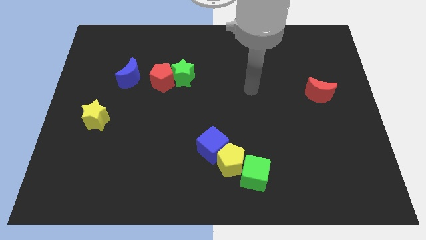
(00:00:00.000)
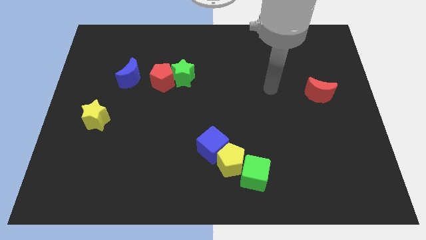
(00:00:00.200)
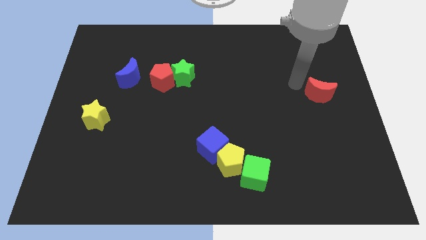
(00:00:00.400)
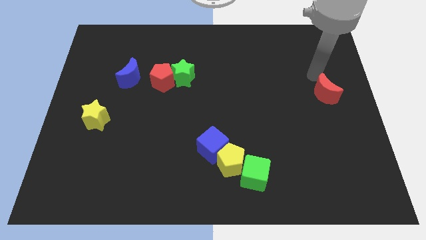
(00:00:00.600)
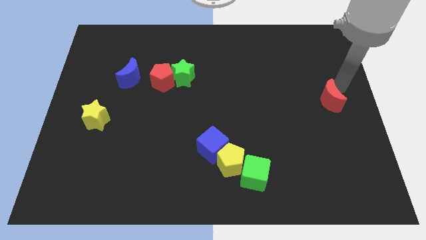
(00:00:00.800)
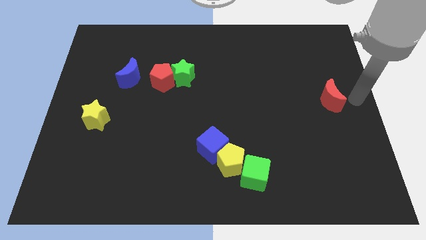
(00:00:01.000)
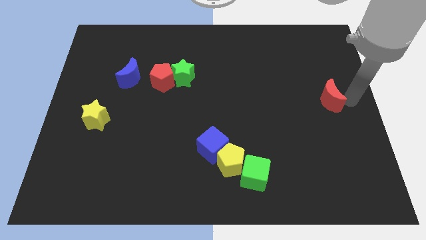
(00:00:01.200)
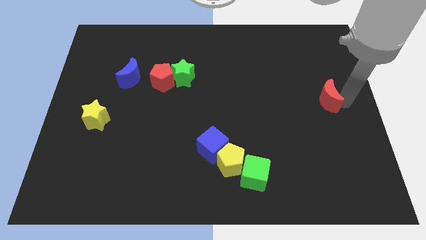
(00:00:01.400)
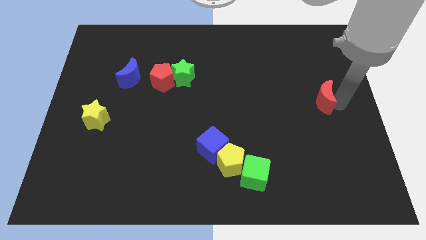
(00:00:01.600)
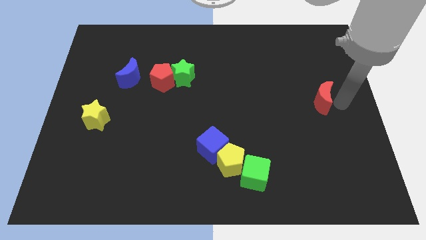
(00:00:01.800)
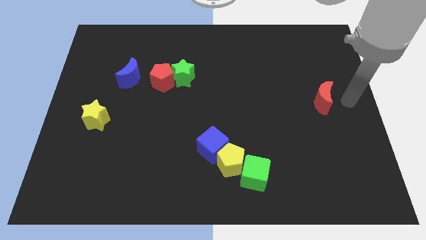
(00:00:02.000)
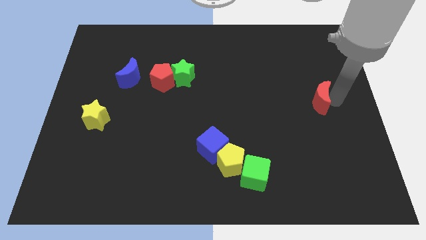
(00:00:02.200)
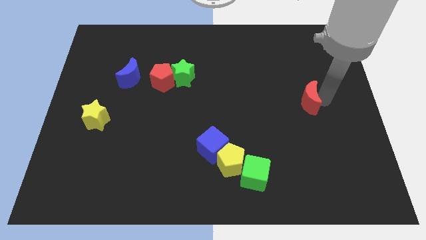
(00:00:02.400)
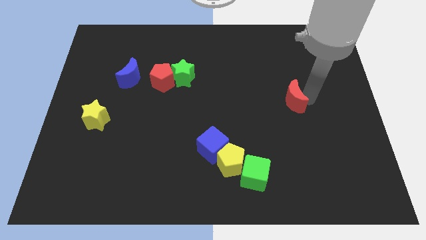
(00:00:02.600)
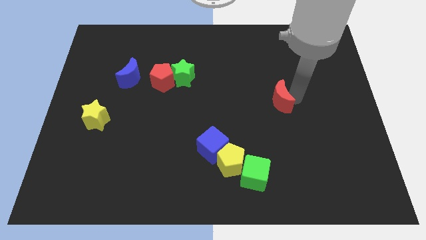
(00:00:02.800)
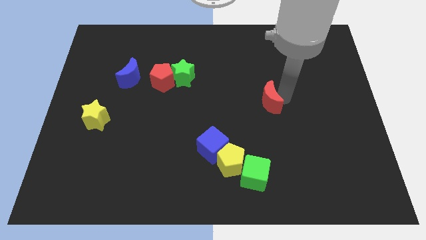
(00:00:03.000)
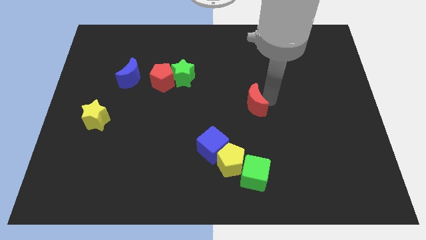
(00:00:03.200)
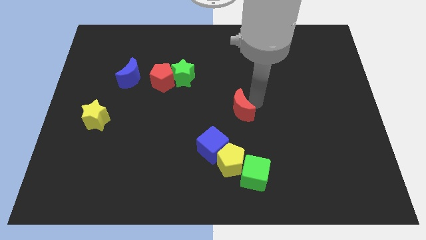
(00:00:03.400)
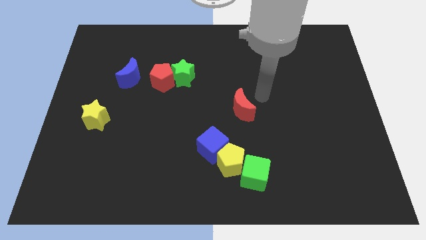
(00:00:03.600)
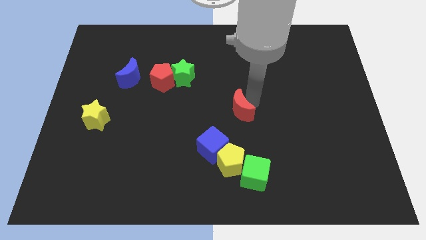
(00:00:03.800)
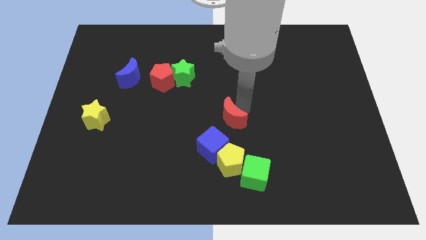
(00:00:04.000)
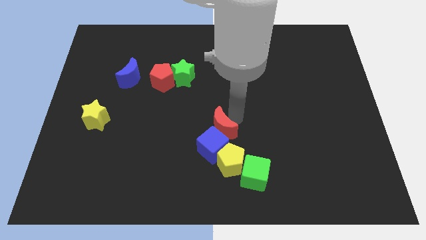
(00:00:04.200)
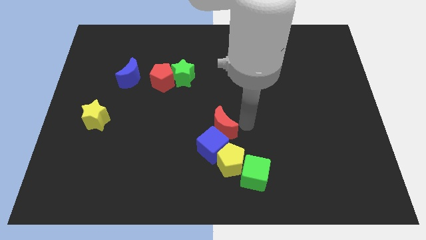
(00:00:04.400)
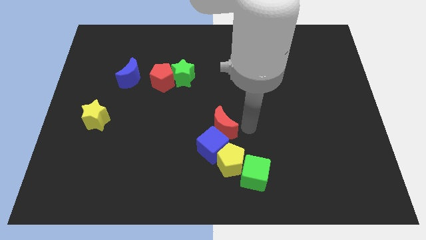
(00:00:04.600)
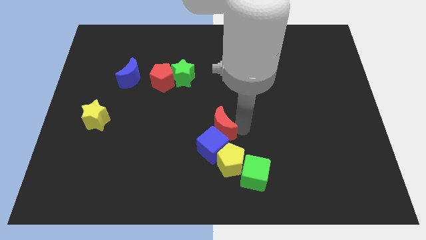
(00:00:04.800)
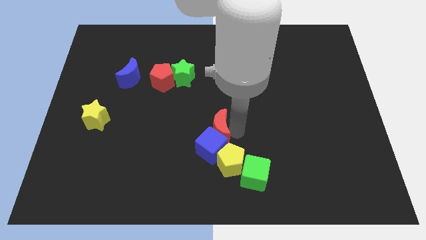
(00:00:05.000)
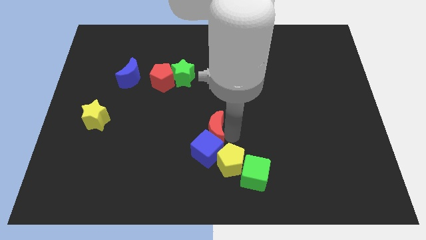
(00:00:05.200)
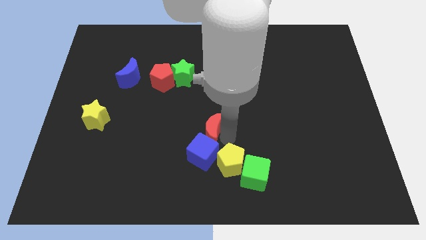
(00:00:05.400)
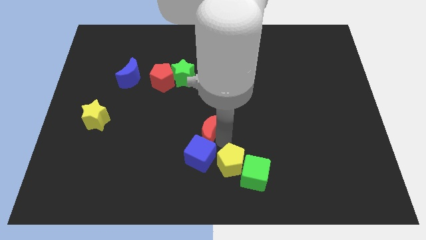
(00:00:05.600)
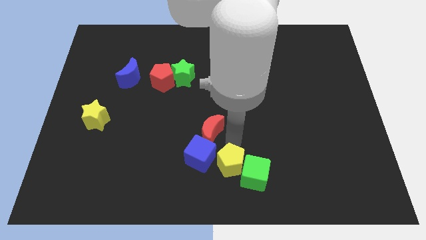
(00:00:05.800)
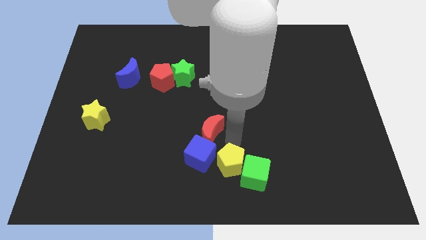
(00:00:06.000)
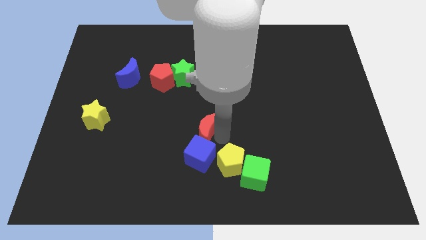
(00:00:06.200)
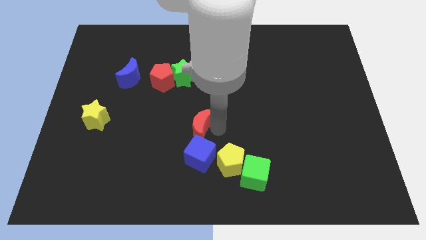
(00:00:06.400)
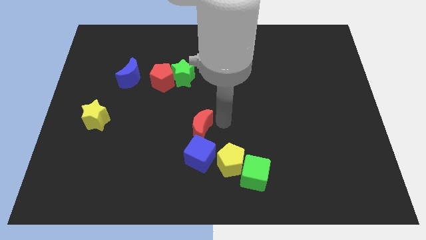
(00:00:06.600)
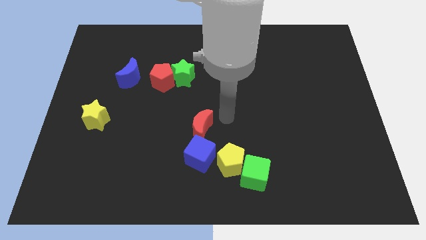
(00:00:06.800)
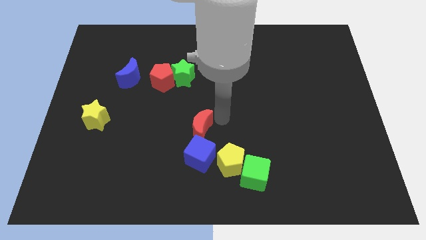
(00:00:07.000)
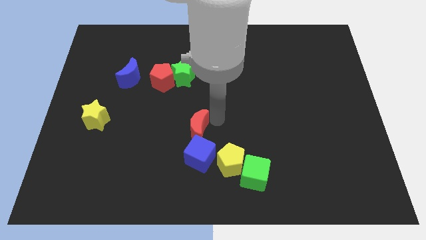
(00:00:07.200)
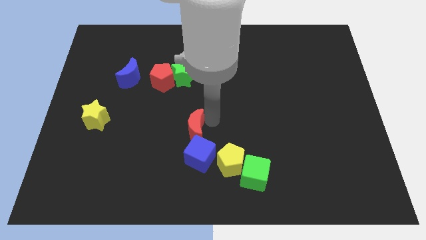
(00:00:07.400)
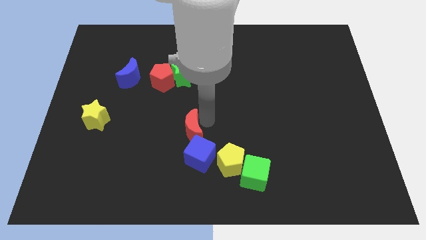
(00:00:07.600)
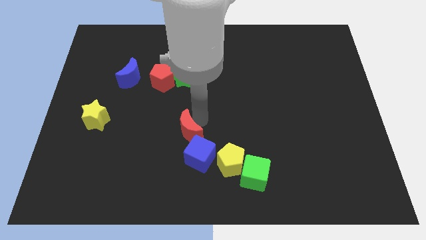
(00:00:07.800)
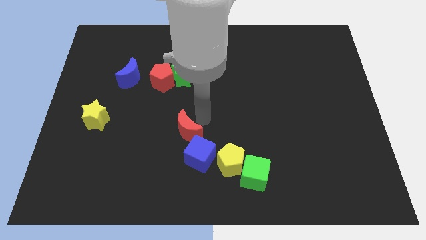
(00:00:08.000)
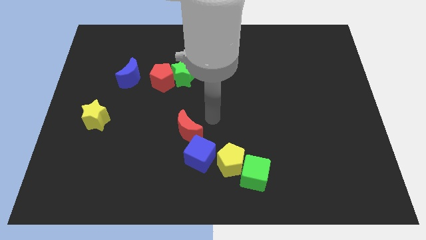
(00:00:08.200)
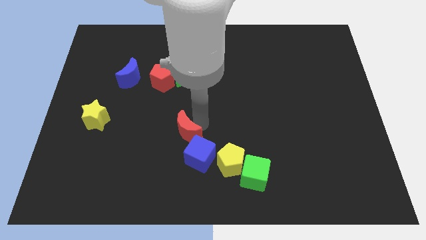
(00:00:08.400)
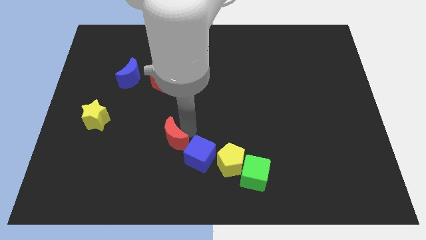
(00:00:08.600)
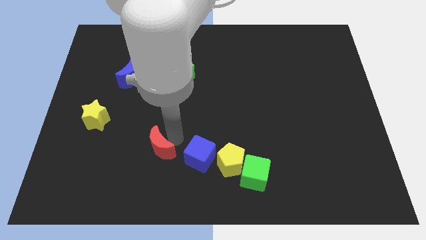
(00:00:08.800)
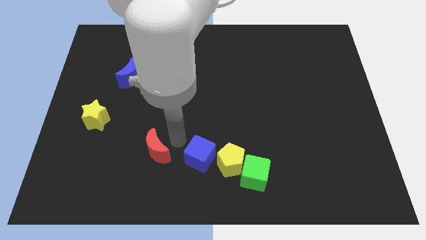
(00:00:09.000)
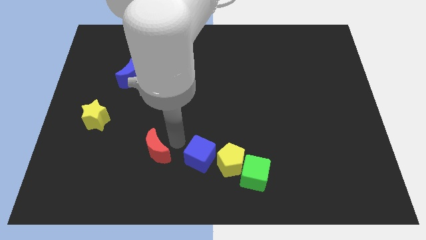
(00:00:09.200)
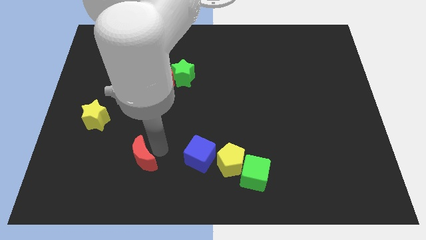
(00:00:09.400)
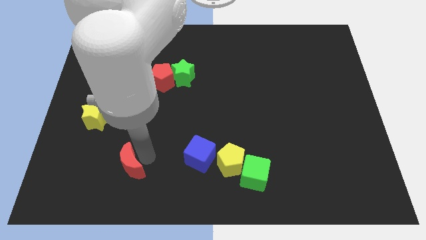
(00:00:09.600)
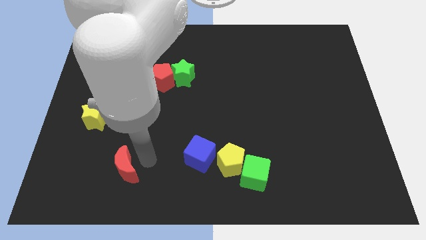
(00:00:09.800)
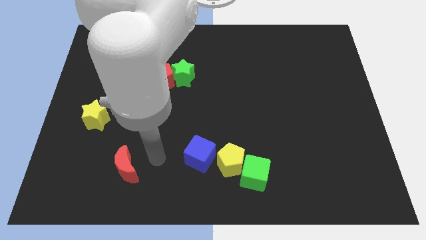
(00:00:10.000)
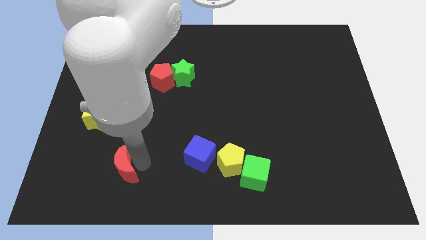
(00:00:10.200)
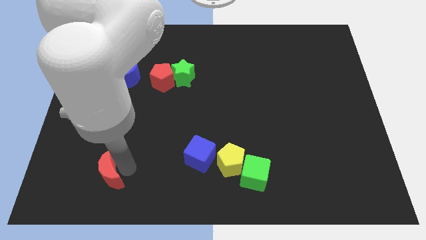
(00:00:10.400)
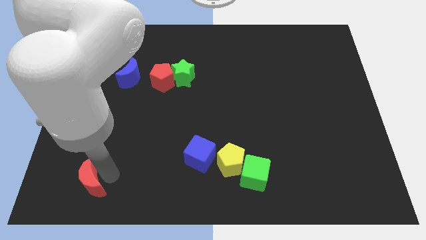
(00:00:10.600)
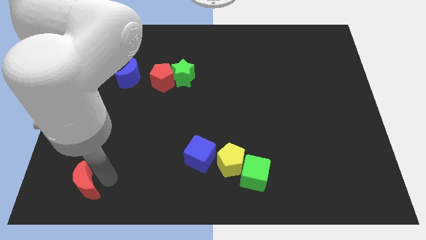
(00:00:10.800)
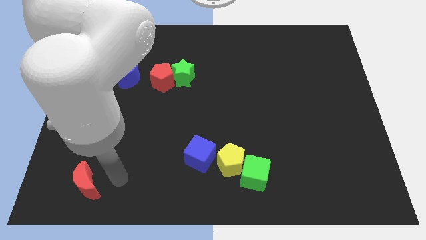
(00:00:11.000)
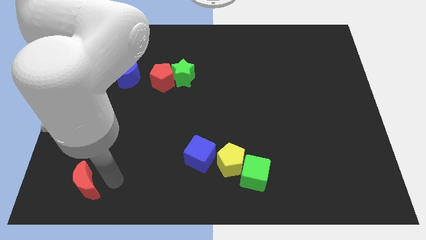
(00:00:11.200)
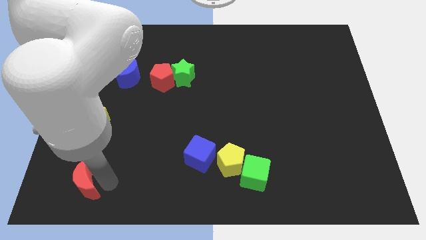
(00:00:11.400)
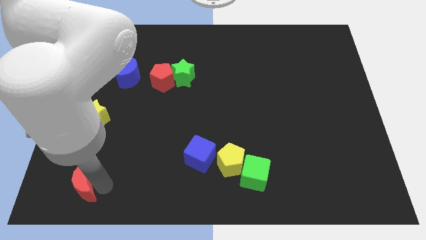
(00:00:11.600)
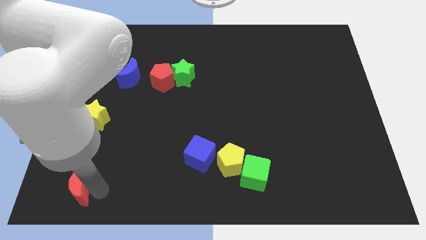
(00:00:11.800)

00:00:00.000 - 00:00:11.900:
push the red moon to the bottom left

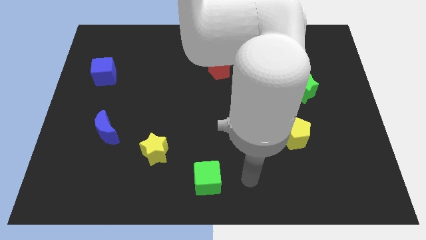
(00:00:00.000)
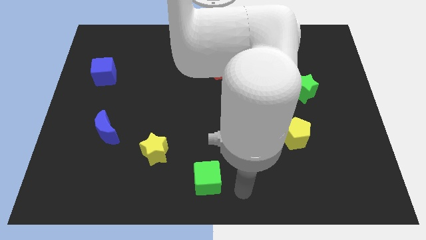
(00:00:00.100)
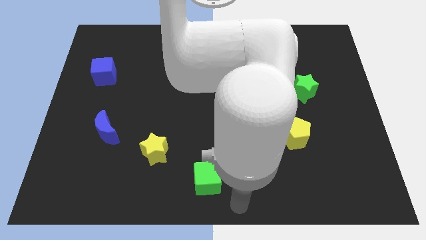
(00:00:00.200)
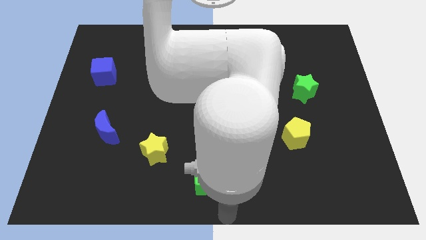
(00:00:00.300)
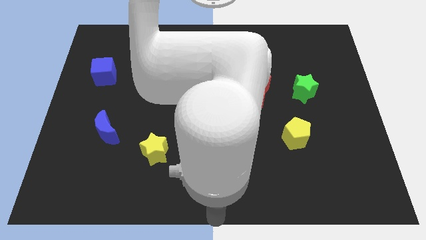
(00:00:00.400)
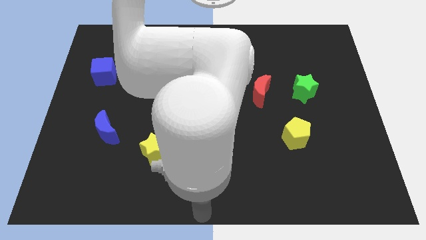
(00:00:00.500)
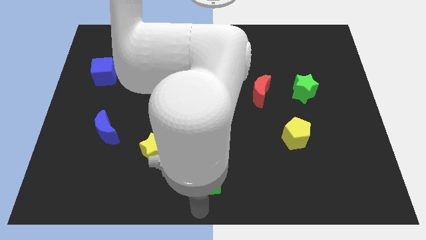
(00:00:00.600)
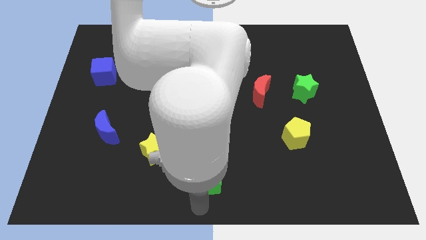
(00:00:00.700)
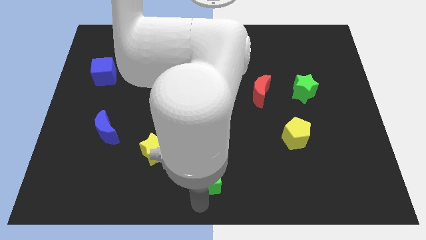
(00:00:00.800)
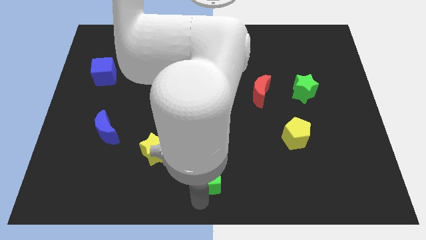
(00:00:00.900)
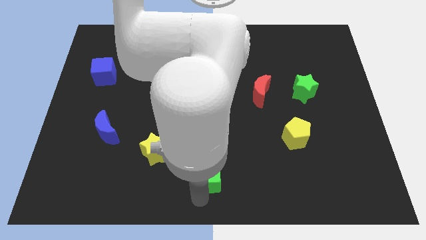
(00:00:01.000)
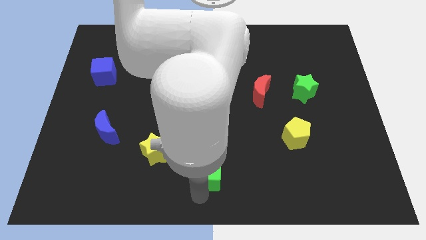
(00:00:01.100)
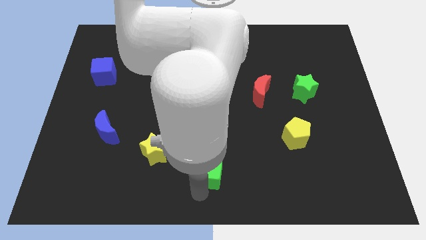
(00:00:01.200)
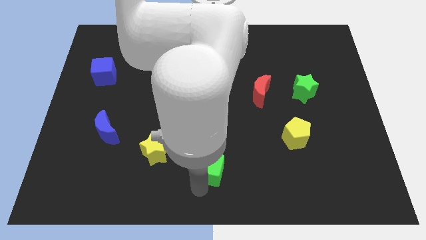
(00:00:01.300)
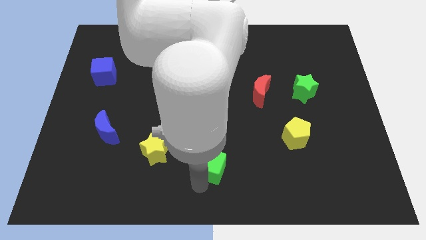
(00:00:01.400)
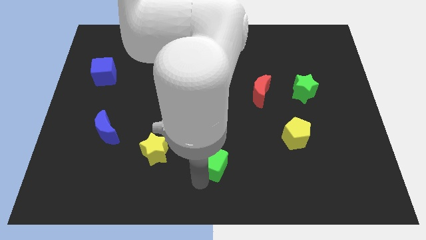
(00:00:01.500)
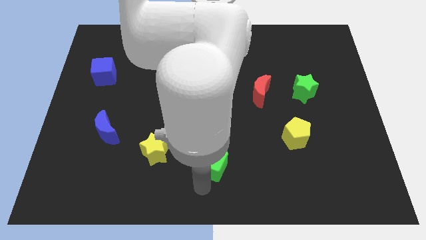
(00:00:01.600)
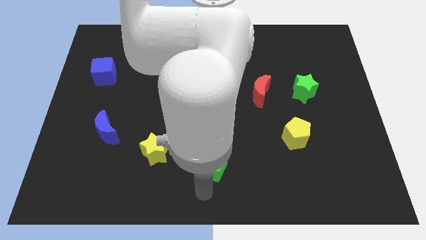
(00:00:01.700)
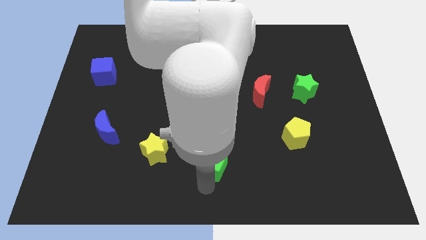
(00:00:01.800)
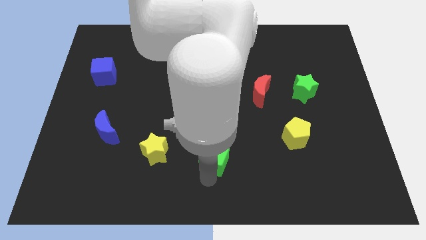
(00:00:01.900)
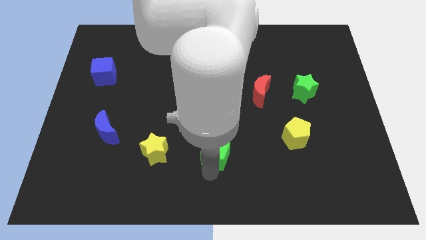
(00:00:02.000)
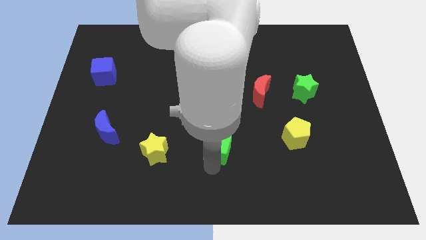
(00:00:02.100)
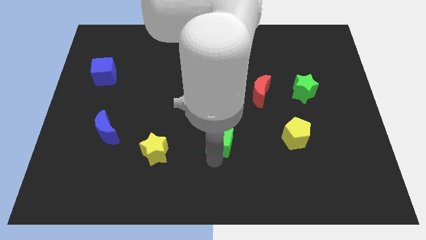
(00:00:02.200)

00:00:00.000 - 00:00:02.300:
slide the green cube to the middle of the board
